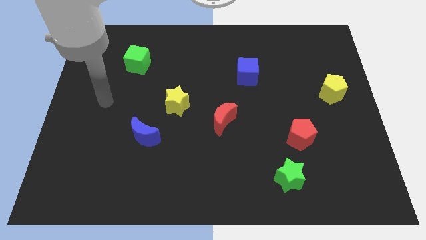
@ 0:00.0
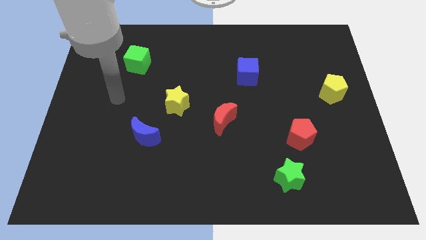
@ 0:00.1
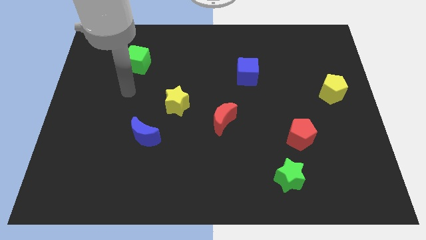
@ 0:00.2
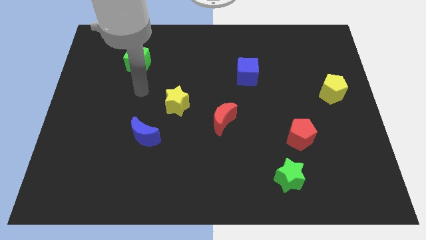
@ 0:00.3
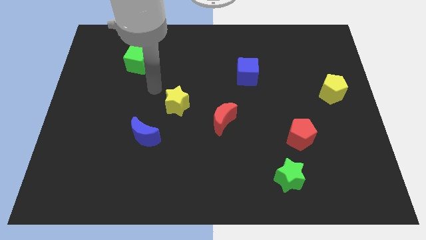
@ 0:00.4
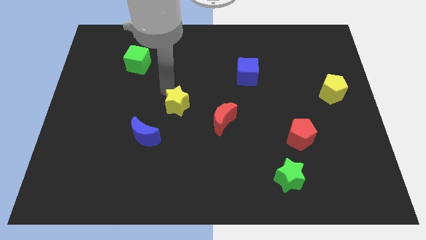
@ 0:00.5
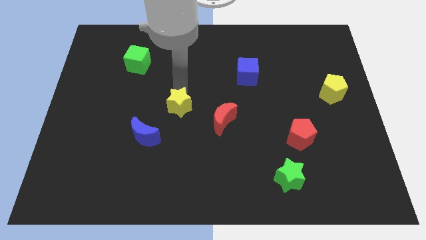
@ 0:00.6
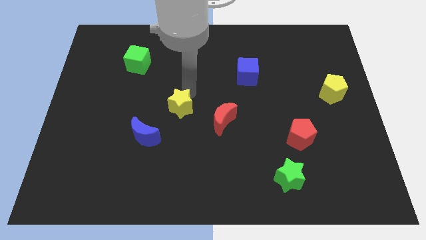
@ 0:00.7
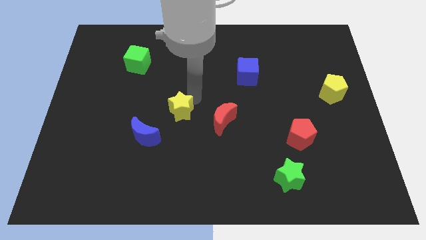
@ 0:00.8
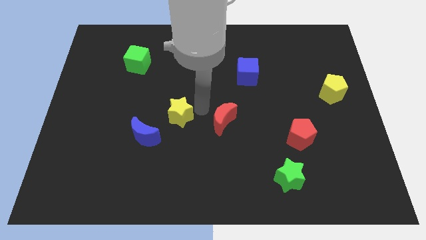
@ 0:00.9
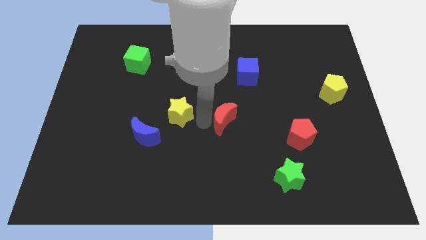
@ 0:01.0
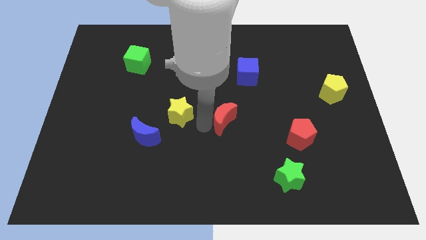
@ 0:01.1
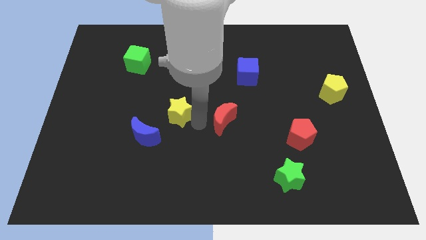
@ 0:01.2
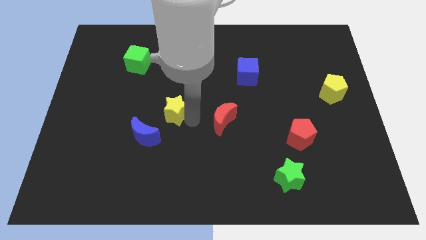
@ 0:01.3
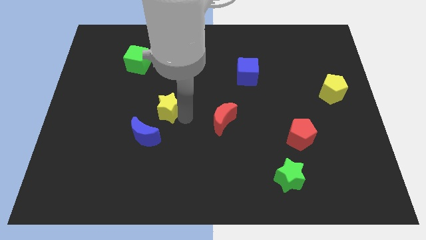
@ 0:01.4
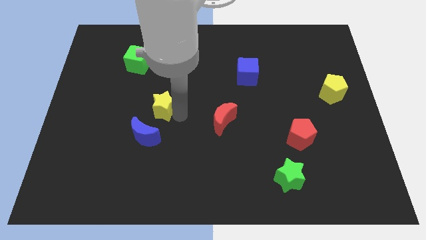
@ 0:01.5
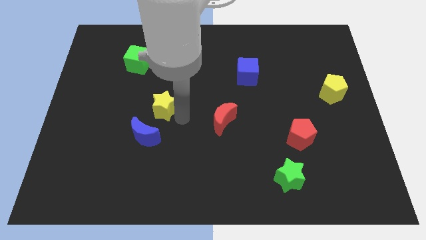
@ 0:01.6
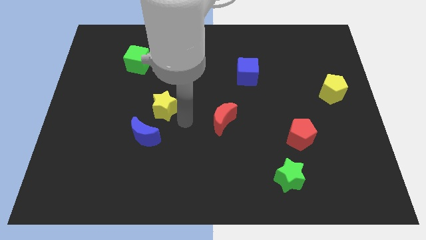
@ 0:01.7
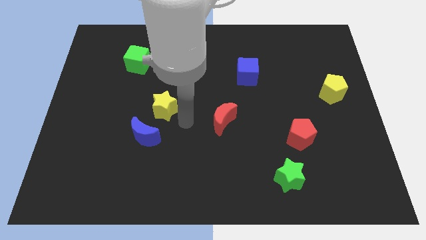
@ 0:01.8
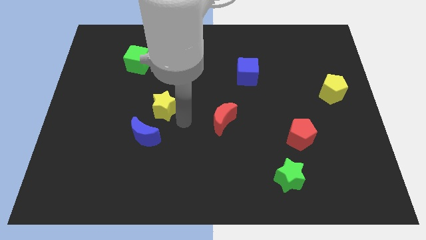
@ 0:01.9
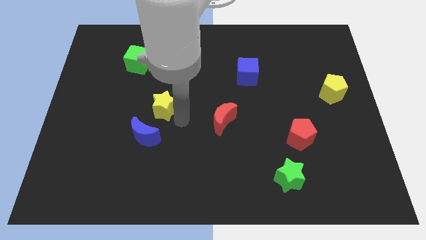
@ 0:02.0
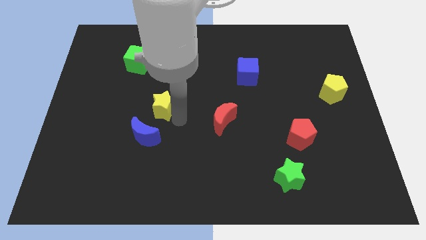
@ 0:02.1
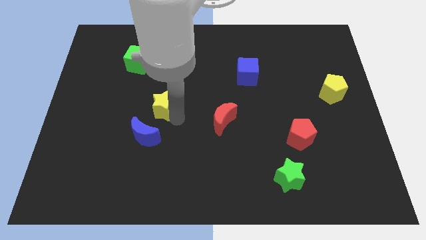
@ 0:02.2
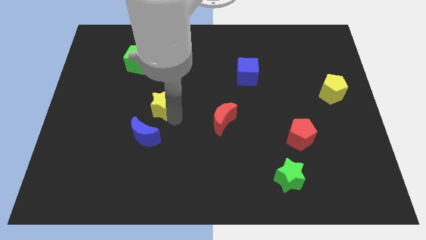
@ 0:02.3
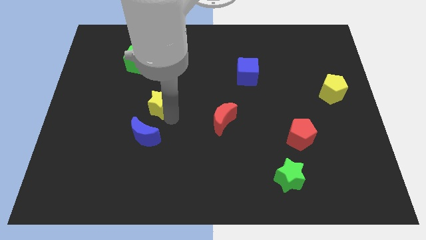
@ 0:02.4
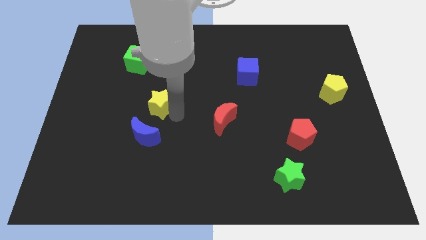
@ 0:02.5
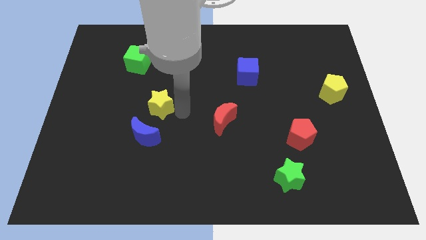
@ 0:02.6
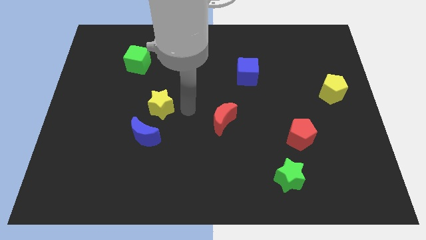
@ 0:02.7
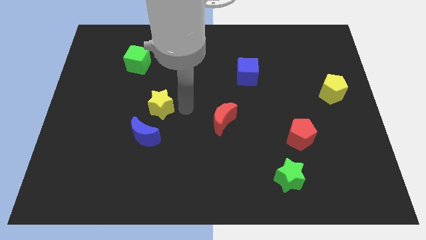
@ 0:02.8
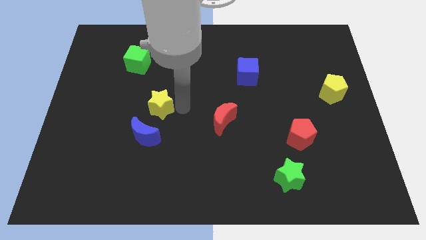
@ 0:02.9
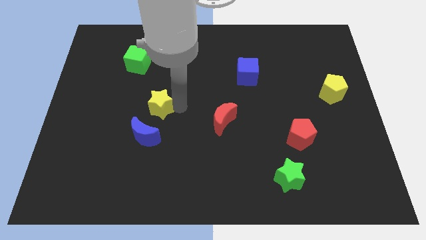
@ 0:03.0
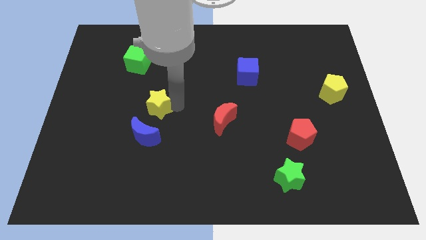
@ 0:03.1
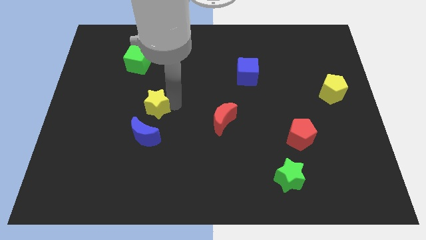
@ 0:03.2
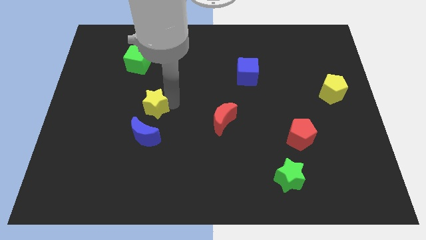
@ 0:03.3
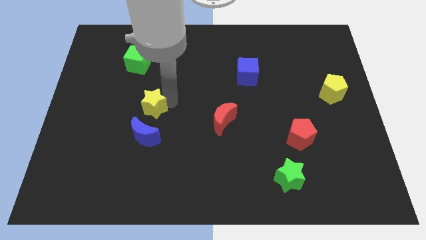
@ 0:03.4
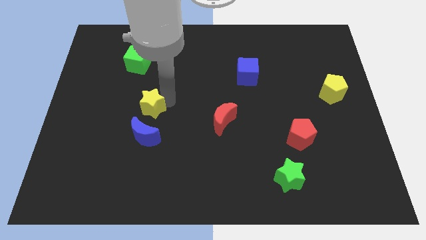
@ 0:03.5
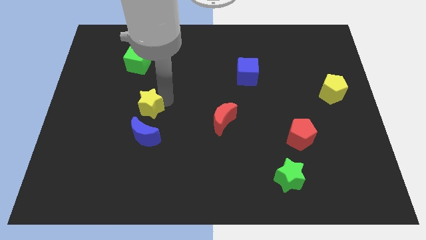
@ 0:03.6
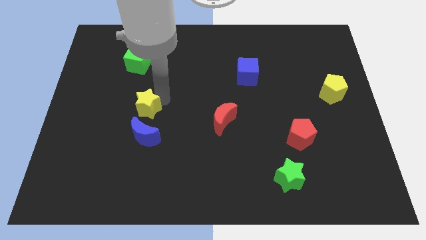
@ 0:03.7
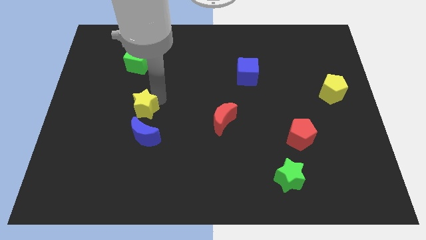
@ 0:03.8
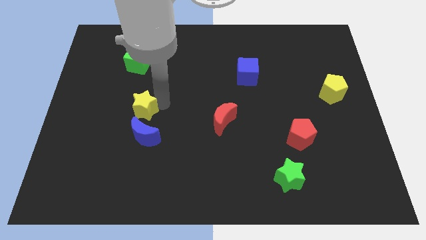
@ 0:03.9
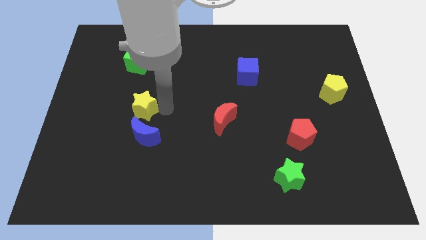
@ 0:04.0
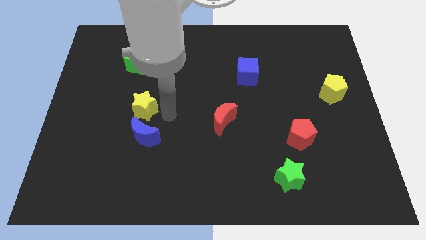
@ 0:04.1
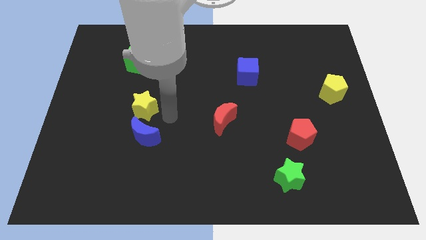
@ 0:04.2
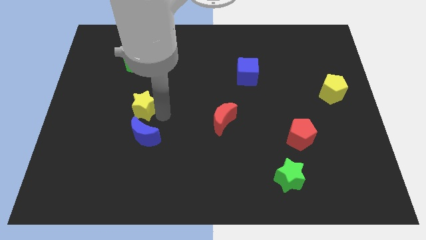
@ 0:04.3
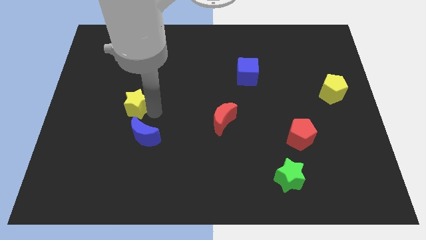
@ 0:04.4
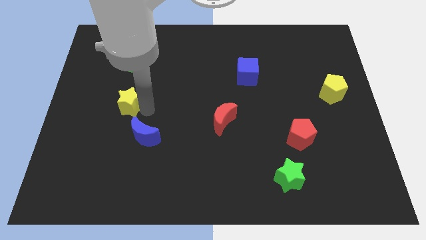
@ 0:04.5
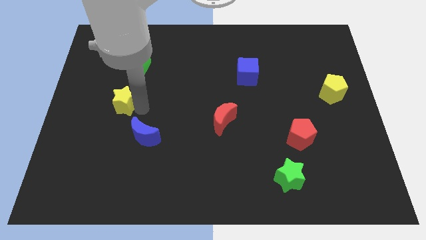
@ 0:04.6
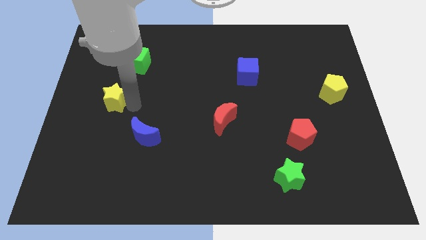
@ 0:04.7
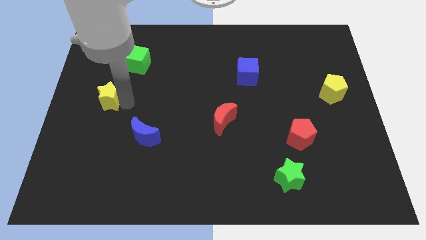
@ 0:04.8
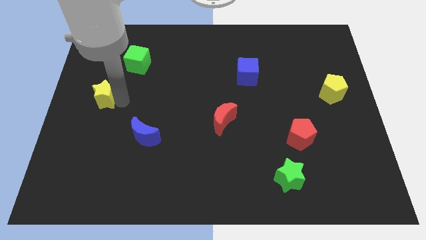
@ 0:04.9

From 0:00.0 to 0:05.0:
push the yellow star to the left side of the board

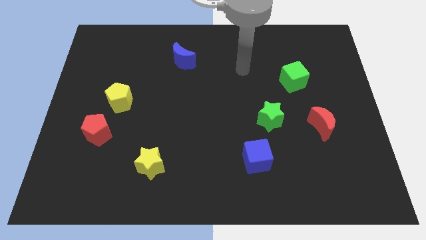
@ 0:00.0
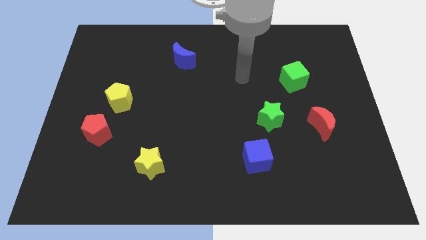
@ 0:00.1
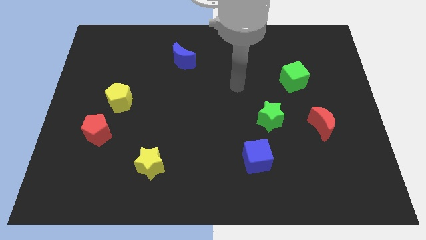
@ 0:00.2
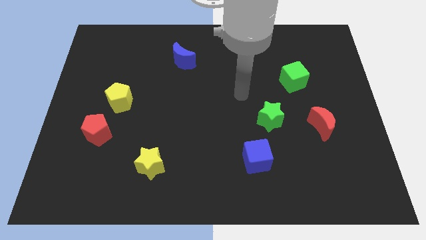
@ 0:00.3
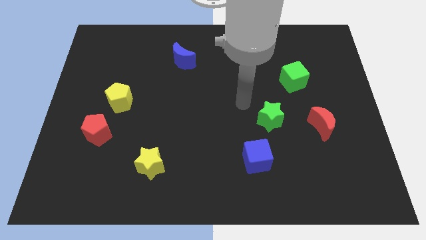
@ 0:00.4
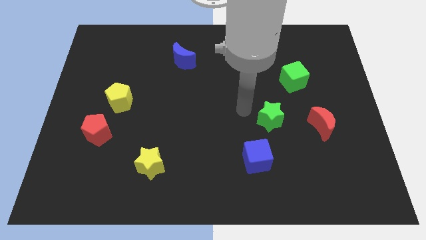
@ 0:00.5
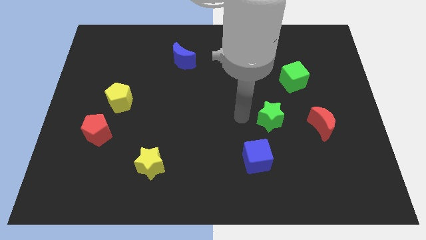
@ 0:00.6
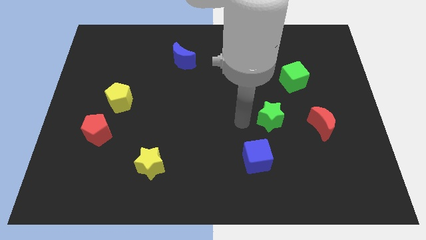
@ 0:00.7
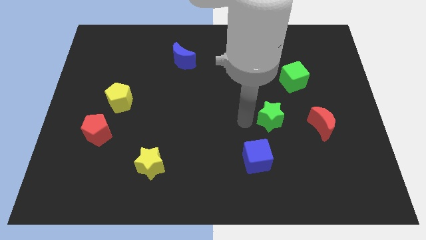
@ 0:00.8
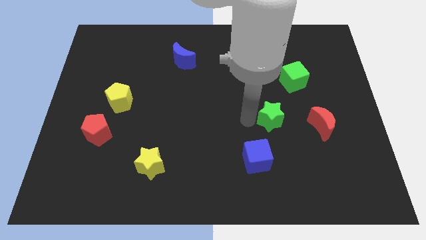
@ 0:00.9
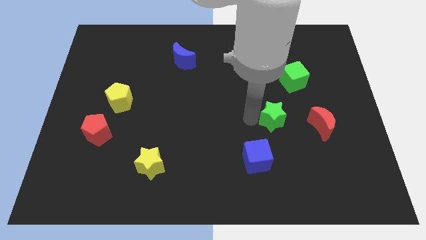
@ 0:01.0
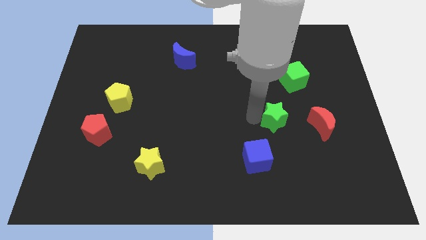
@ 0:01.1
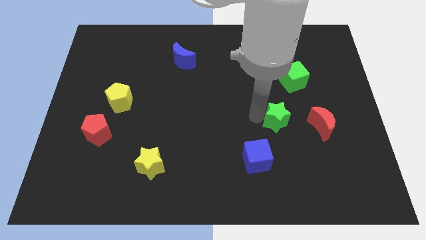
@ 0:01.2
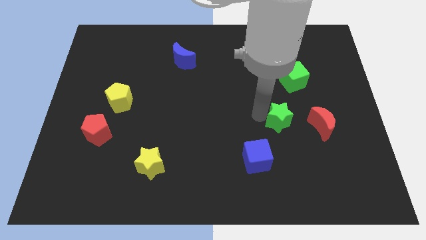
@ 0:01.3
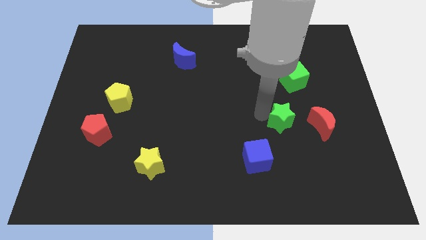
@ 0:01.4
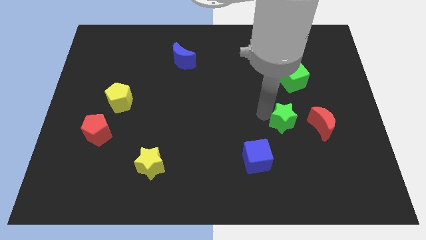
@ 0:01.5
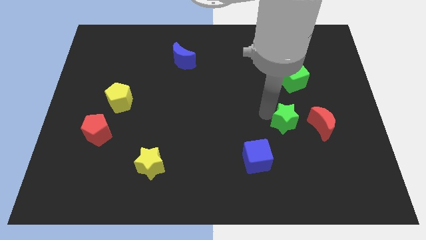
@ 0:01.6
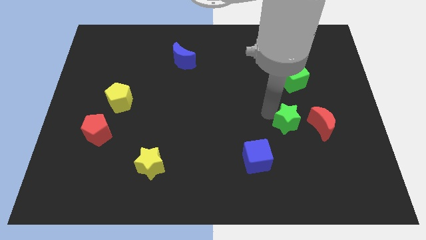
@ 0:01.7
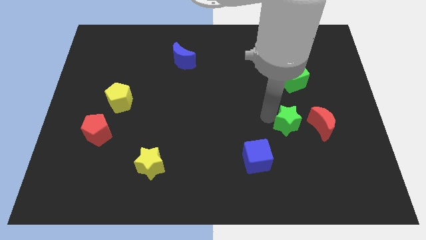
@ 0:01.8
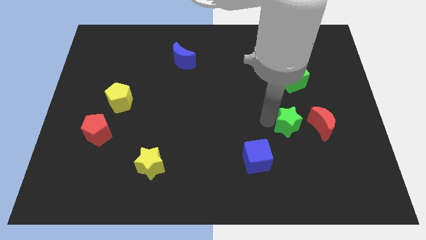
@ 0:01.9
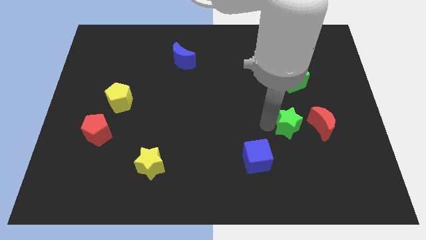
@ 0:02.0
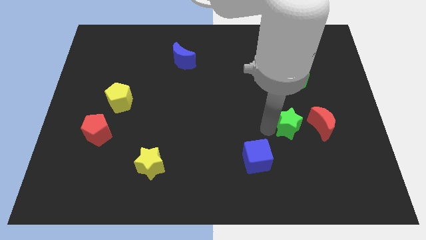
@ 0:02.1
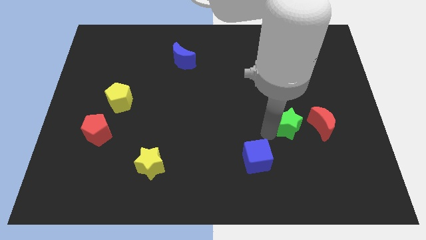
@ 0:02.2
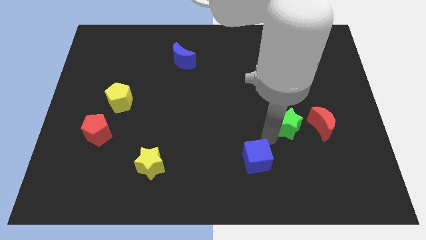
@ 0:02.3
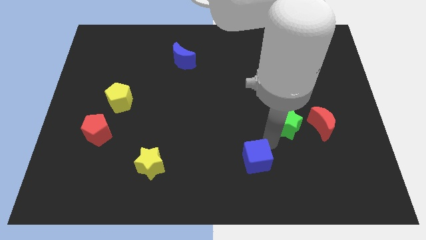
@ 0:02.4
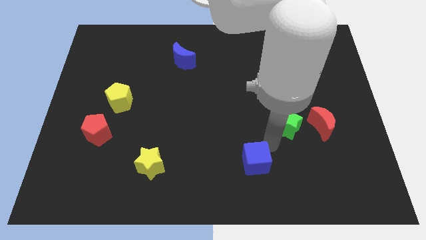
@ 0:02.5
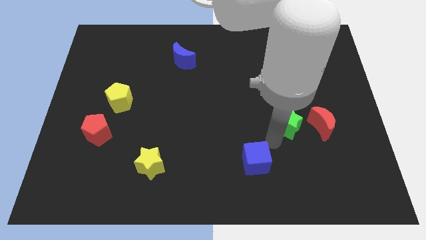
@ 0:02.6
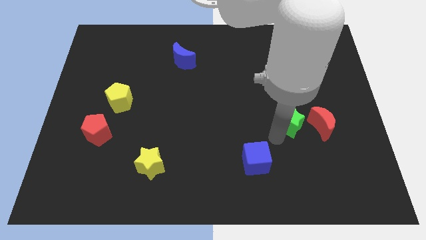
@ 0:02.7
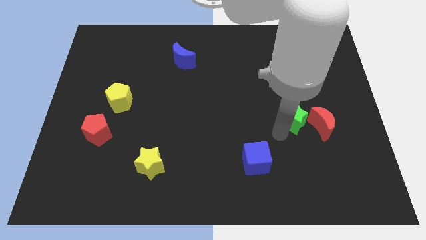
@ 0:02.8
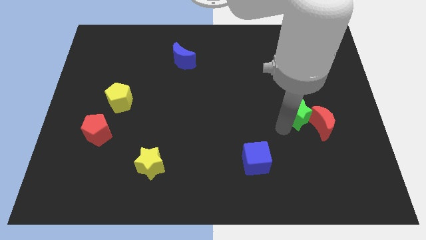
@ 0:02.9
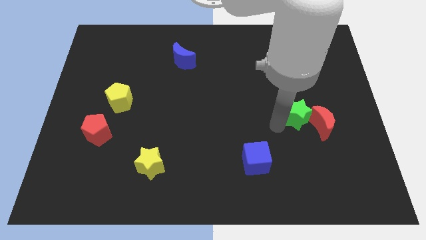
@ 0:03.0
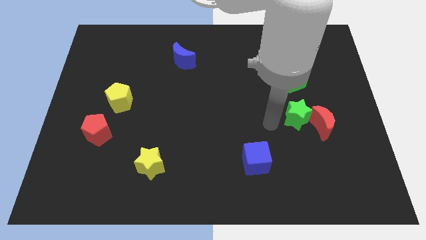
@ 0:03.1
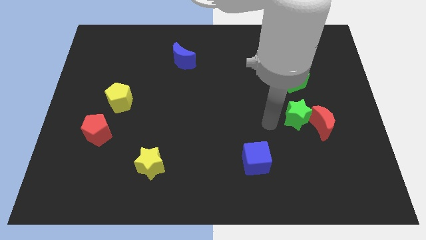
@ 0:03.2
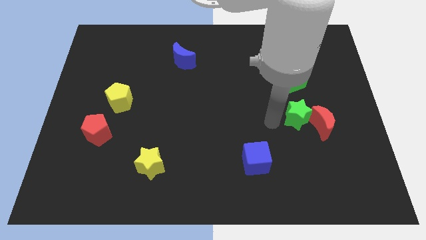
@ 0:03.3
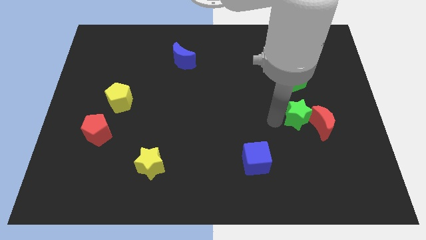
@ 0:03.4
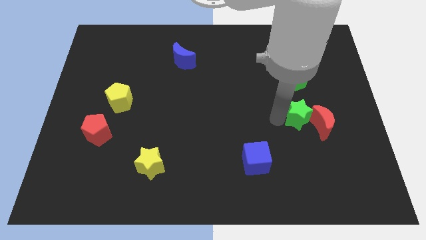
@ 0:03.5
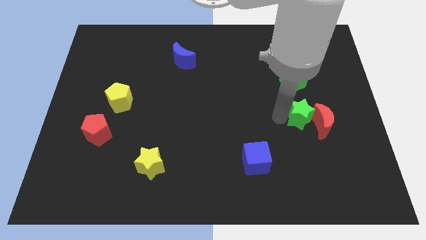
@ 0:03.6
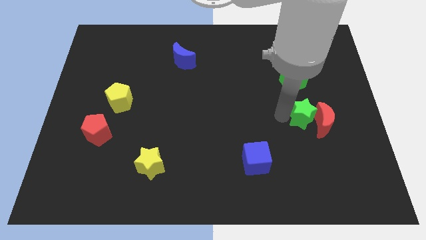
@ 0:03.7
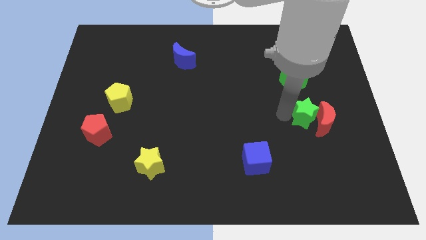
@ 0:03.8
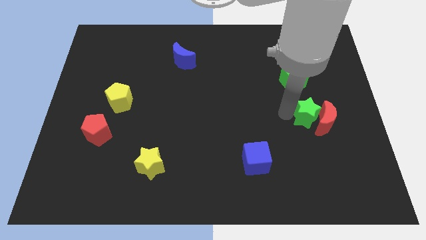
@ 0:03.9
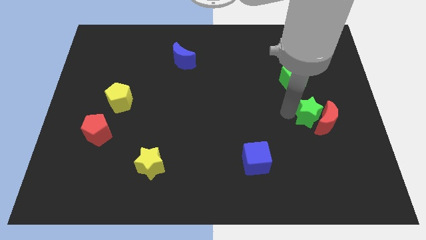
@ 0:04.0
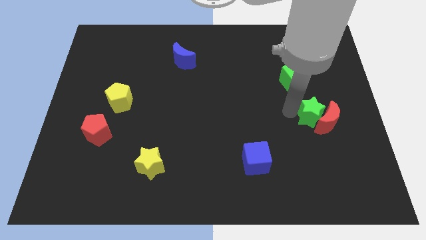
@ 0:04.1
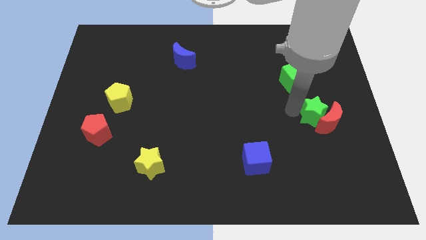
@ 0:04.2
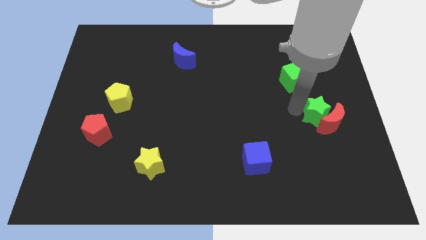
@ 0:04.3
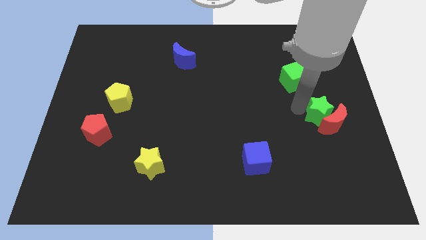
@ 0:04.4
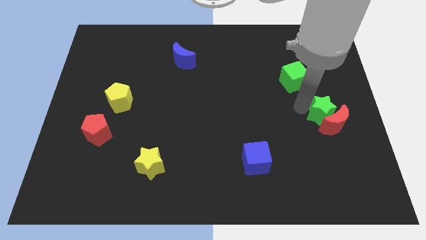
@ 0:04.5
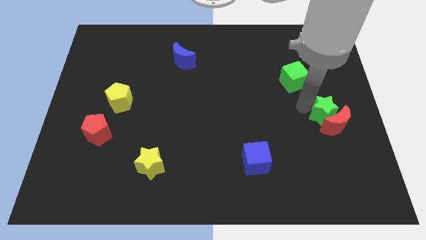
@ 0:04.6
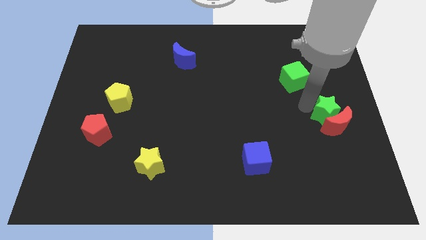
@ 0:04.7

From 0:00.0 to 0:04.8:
move the green star to the right side
